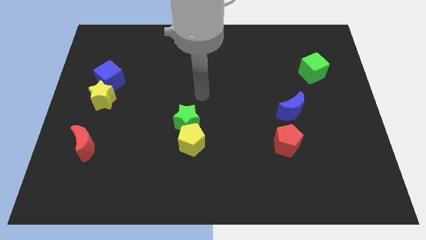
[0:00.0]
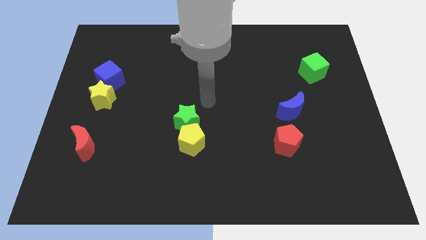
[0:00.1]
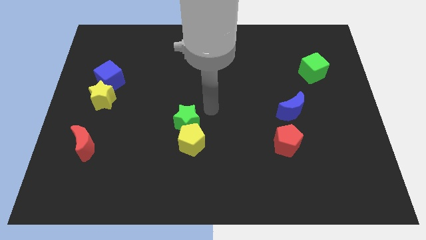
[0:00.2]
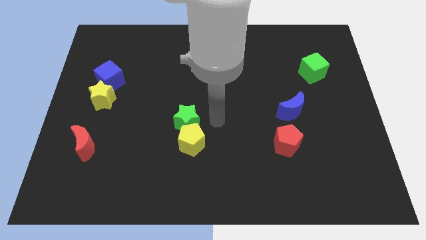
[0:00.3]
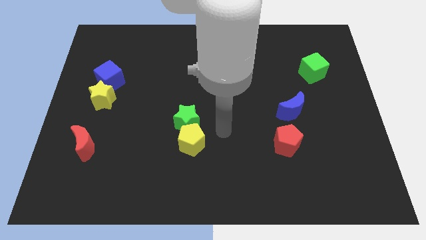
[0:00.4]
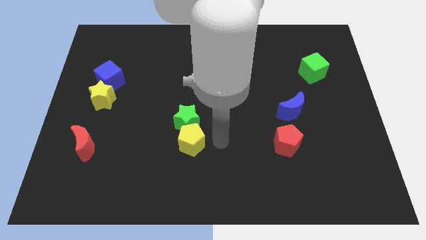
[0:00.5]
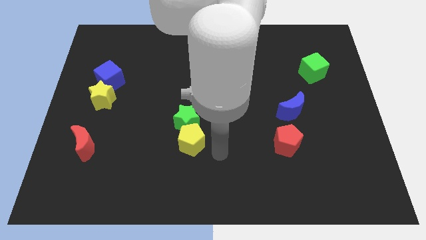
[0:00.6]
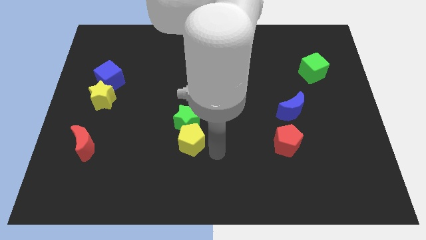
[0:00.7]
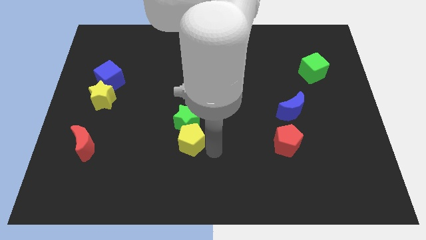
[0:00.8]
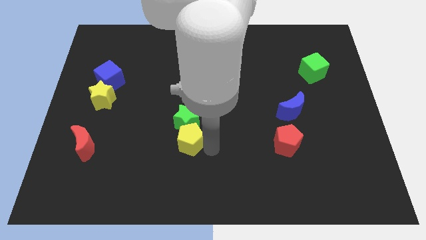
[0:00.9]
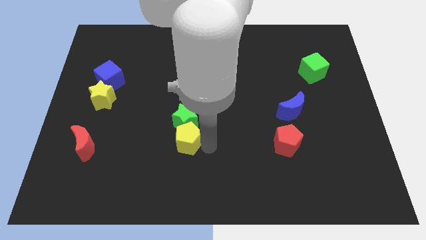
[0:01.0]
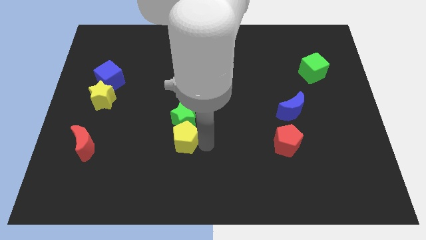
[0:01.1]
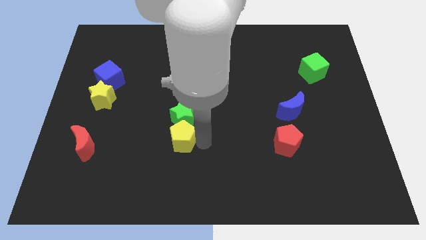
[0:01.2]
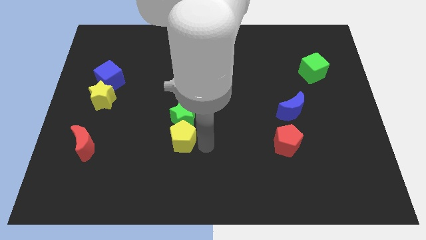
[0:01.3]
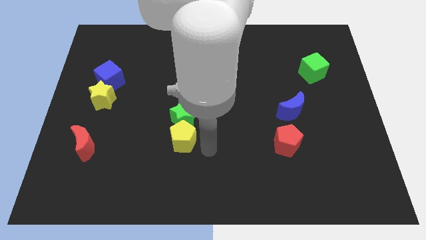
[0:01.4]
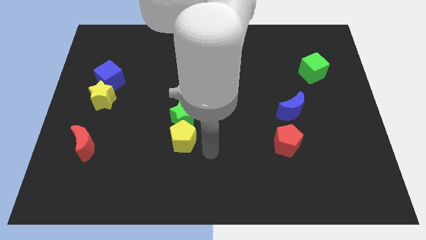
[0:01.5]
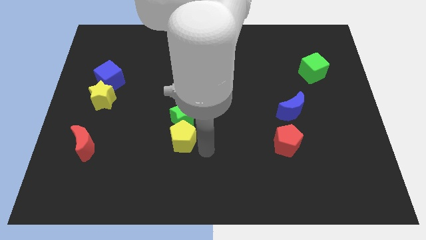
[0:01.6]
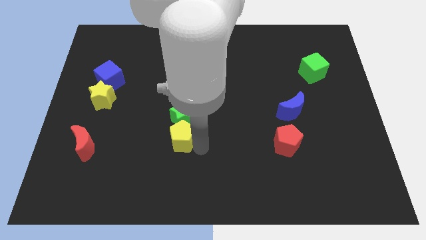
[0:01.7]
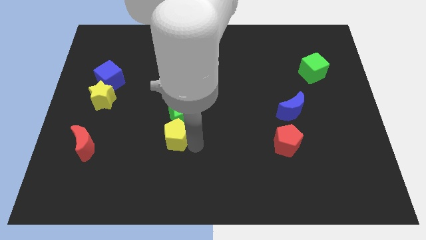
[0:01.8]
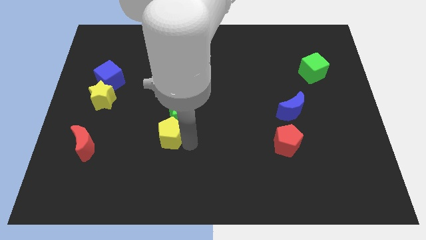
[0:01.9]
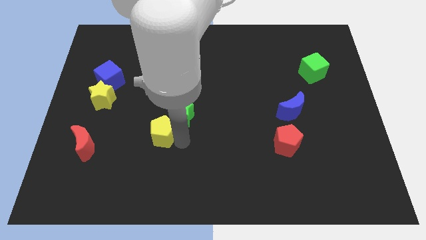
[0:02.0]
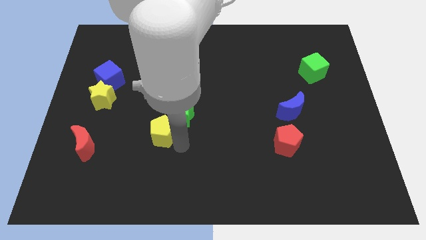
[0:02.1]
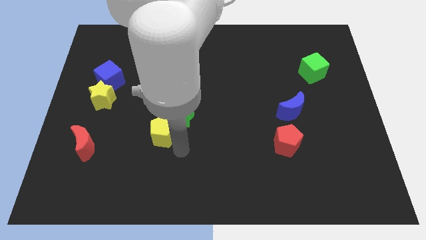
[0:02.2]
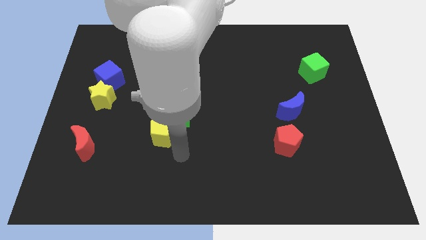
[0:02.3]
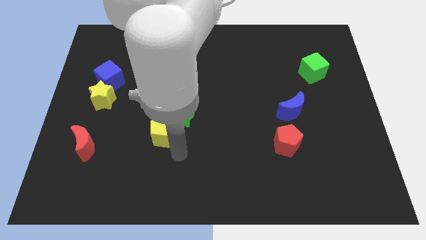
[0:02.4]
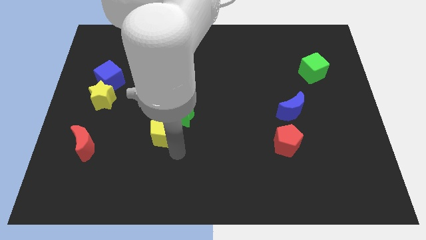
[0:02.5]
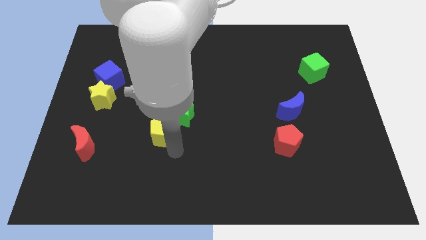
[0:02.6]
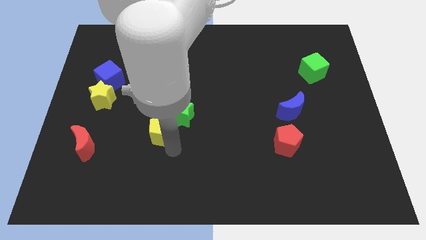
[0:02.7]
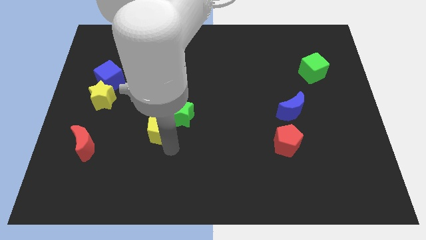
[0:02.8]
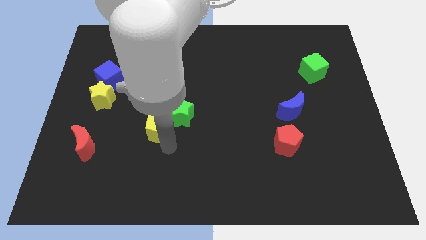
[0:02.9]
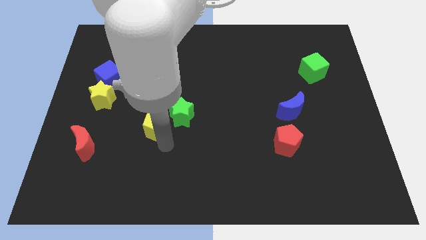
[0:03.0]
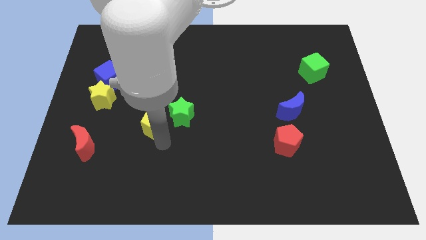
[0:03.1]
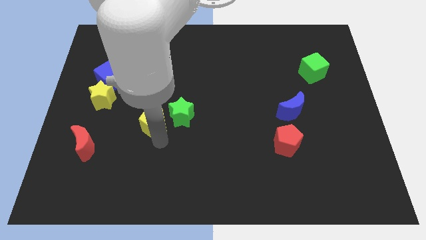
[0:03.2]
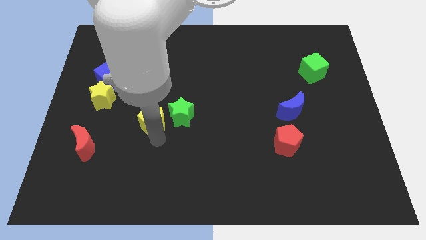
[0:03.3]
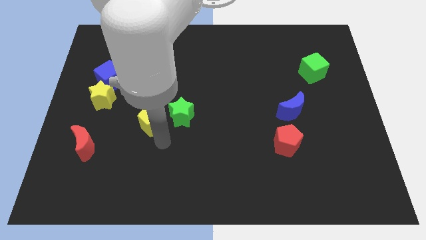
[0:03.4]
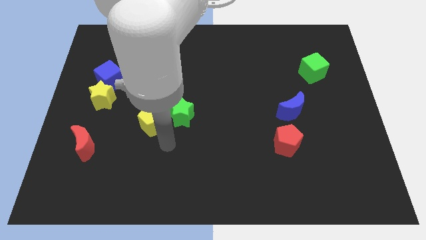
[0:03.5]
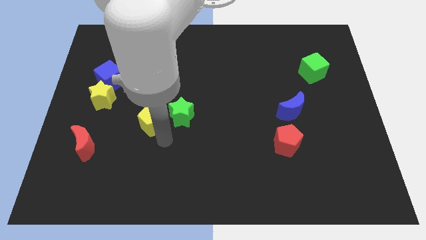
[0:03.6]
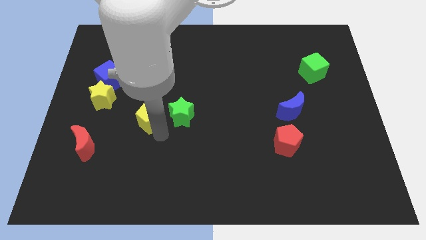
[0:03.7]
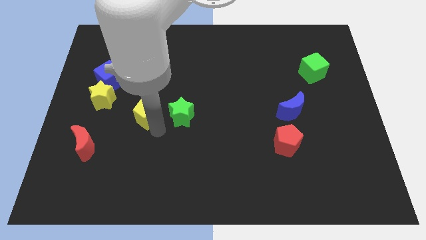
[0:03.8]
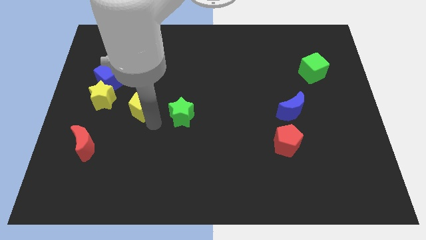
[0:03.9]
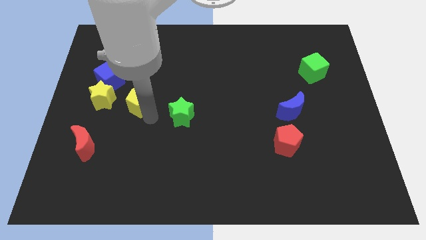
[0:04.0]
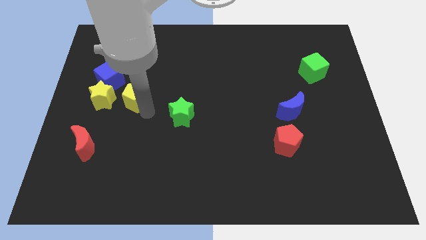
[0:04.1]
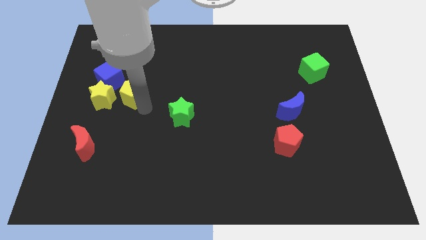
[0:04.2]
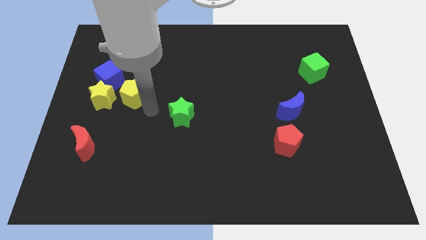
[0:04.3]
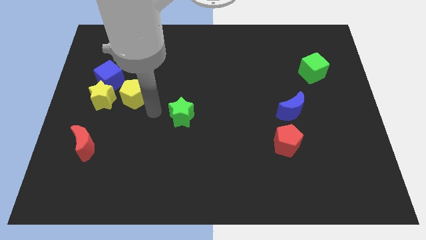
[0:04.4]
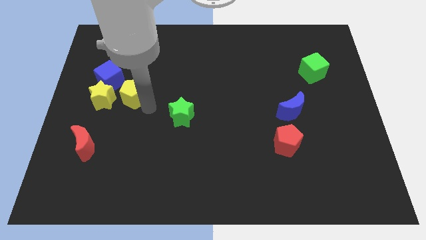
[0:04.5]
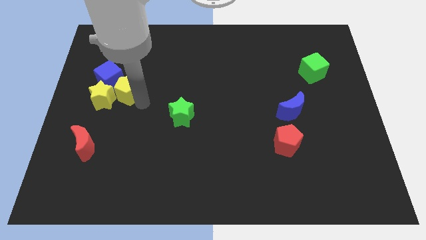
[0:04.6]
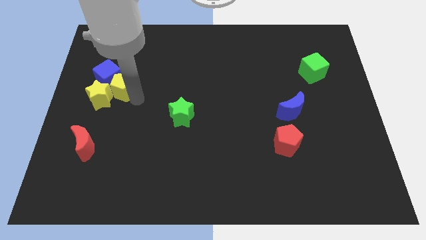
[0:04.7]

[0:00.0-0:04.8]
slide the yellow pentagon towards the blue cube

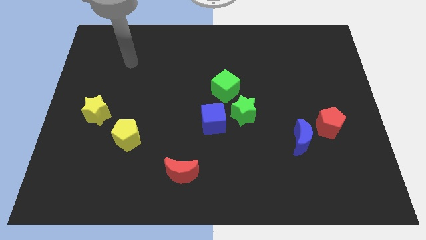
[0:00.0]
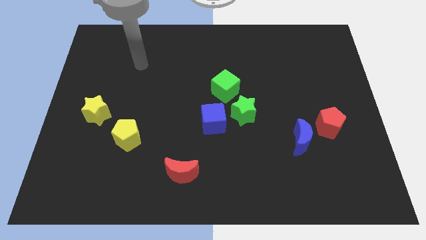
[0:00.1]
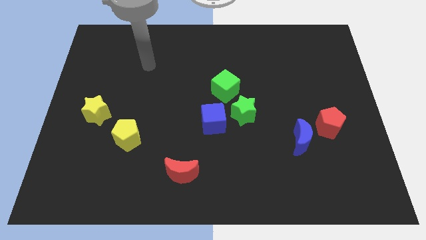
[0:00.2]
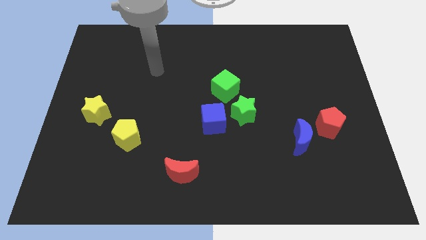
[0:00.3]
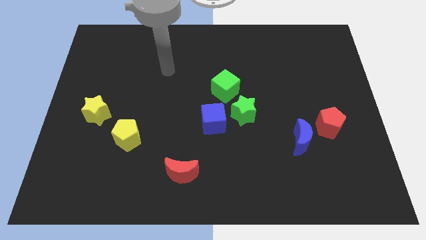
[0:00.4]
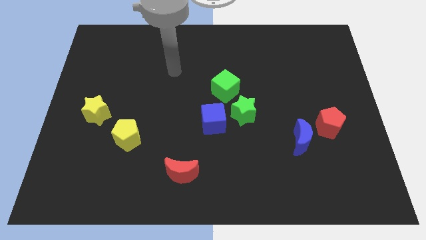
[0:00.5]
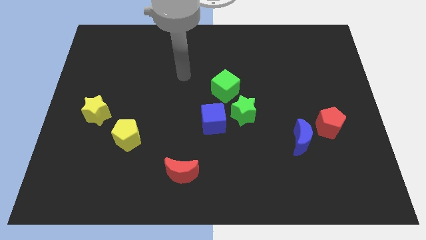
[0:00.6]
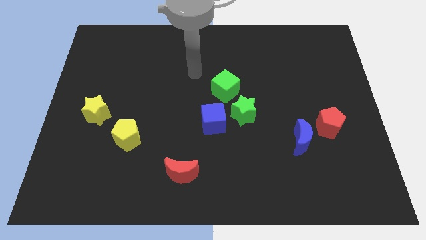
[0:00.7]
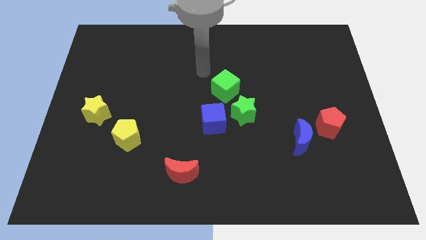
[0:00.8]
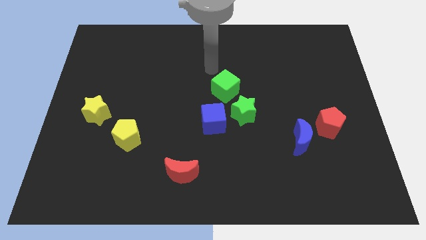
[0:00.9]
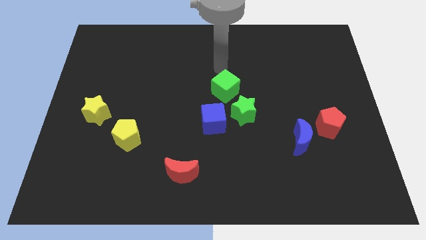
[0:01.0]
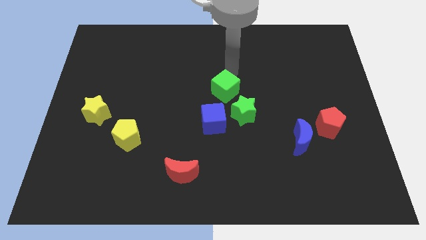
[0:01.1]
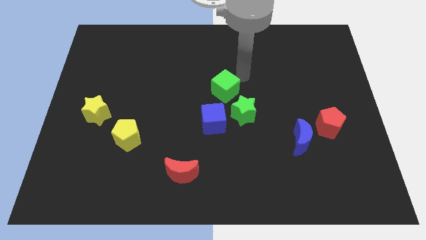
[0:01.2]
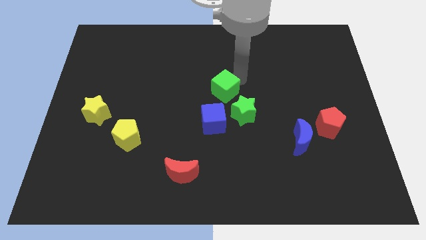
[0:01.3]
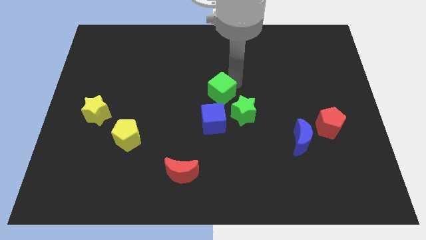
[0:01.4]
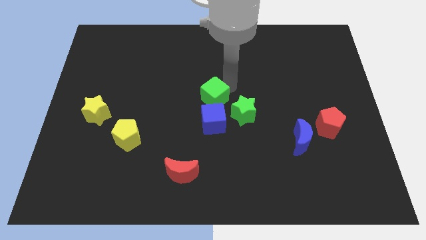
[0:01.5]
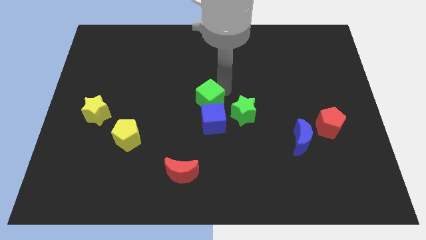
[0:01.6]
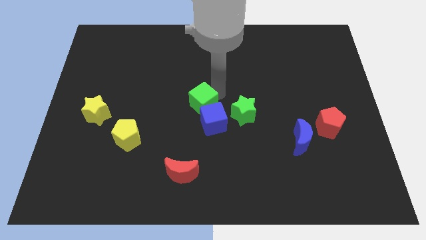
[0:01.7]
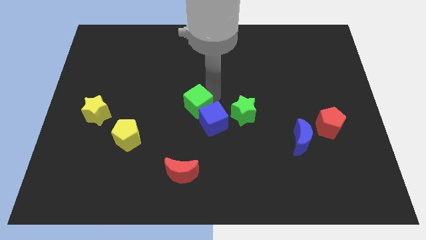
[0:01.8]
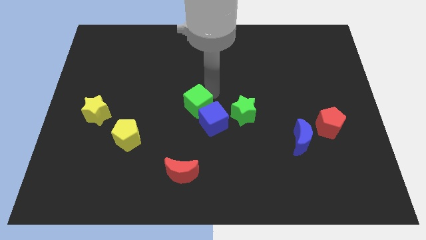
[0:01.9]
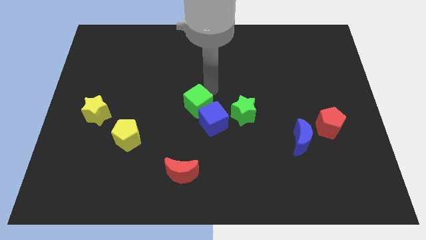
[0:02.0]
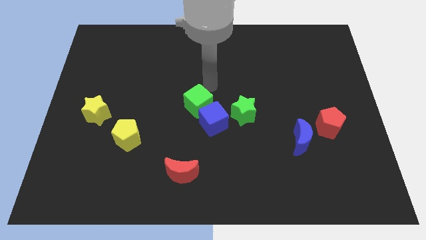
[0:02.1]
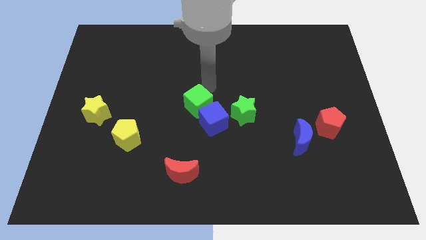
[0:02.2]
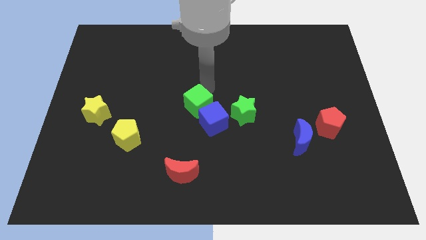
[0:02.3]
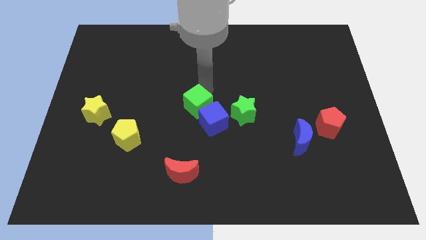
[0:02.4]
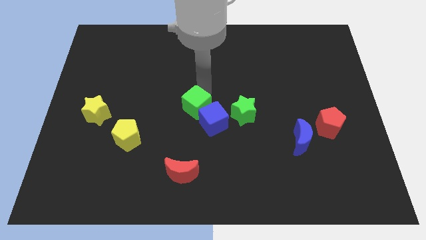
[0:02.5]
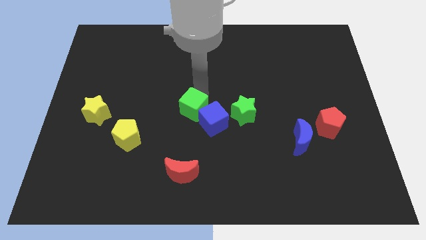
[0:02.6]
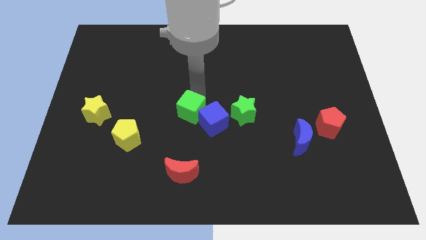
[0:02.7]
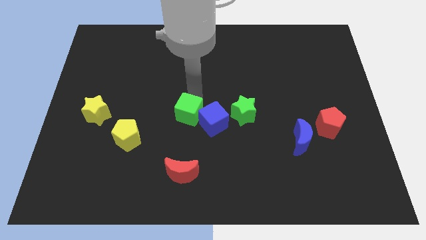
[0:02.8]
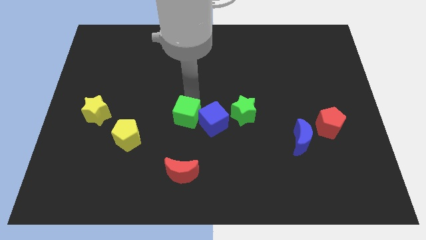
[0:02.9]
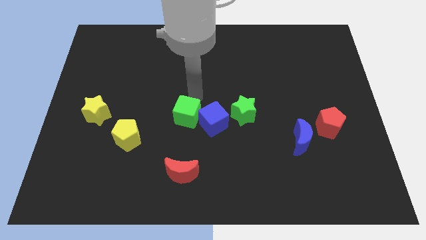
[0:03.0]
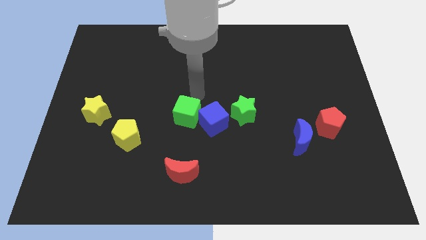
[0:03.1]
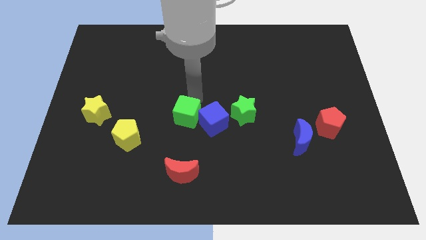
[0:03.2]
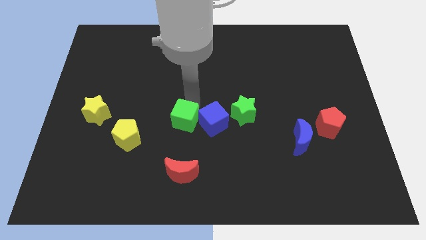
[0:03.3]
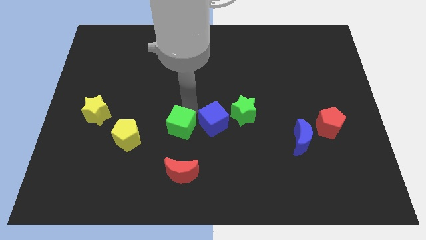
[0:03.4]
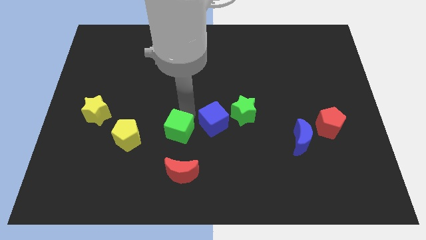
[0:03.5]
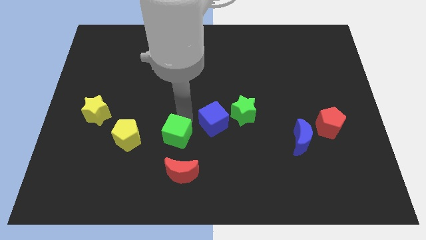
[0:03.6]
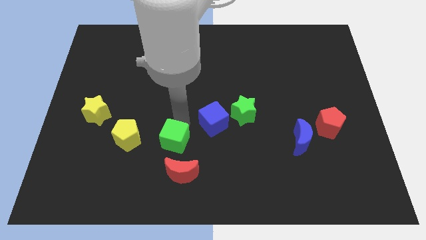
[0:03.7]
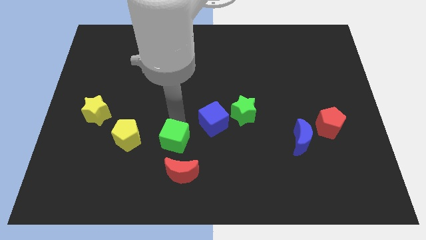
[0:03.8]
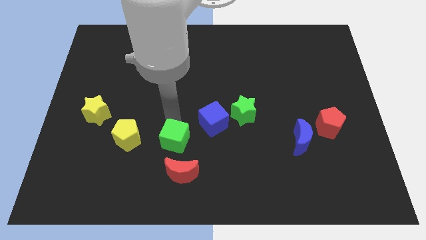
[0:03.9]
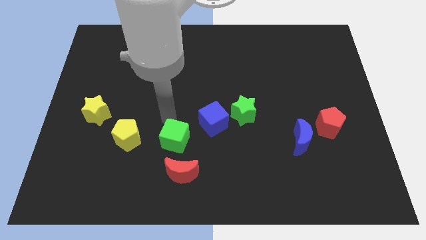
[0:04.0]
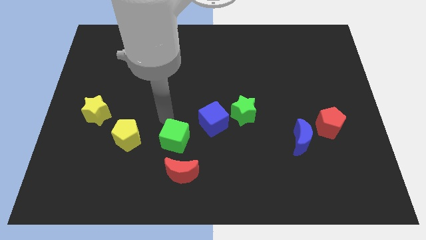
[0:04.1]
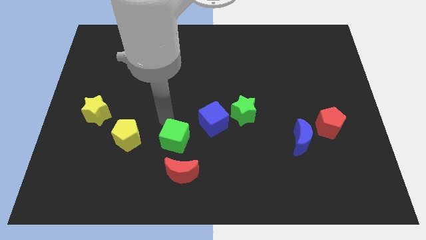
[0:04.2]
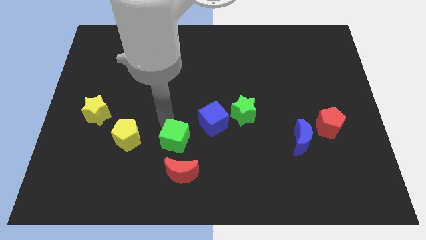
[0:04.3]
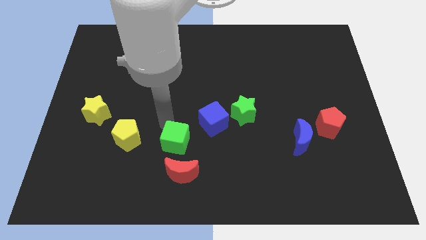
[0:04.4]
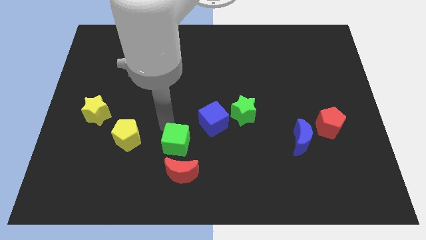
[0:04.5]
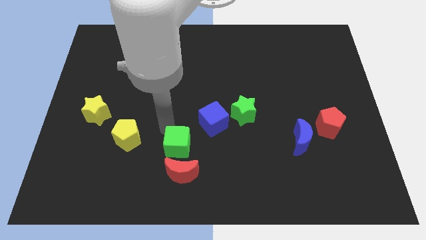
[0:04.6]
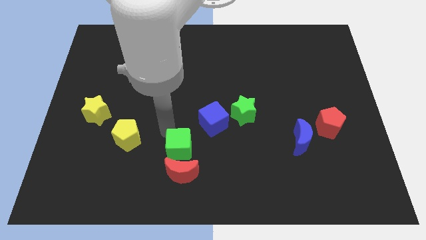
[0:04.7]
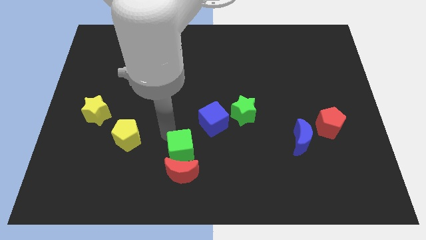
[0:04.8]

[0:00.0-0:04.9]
push the green cube next to the red moon
